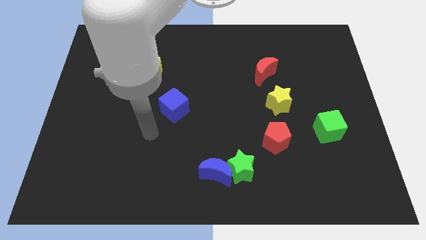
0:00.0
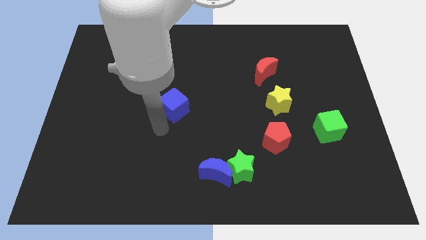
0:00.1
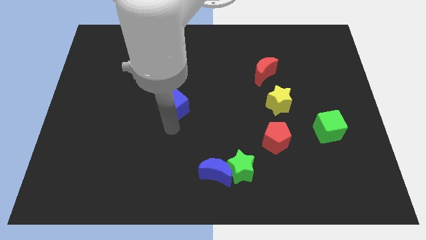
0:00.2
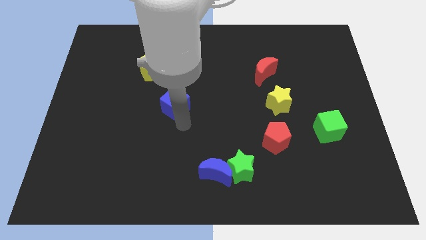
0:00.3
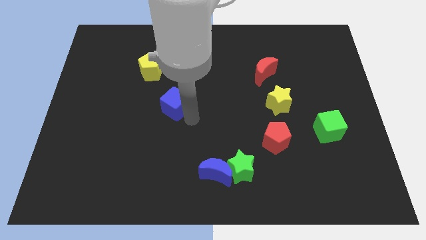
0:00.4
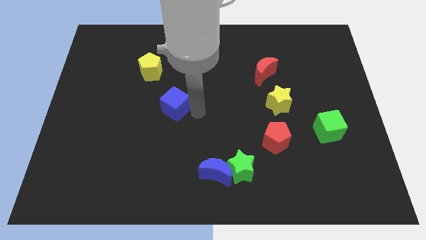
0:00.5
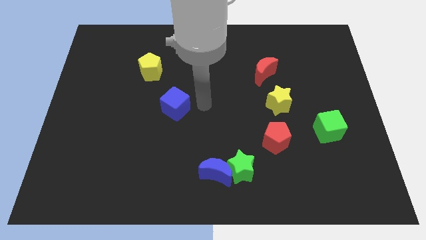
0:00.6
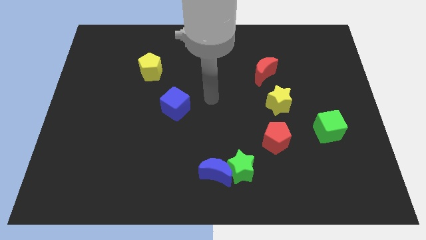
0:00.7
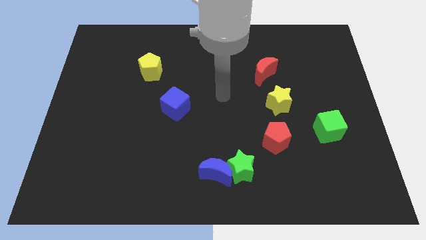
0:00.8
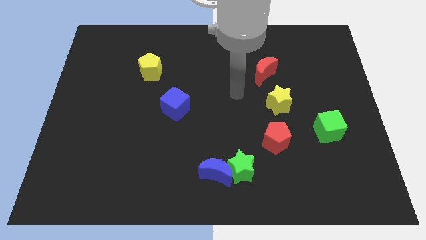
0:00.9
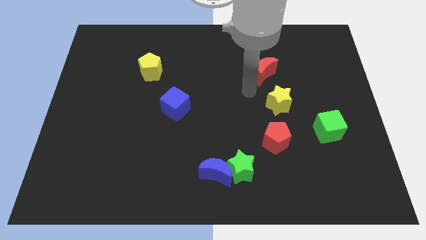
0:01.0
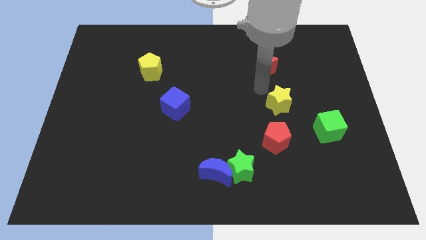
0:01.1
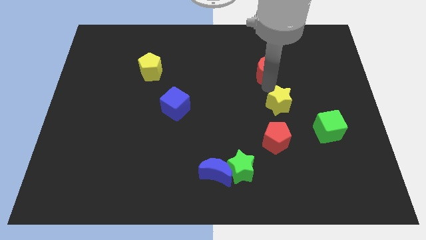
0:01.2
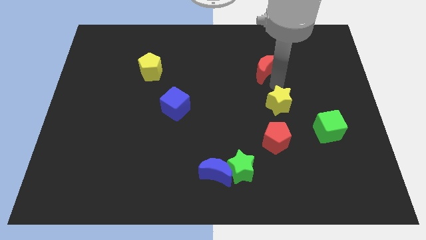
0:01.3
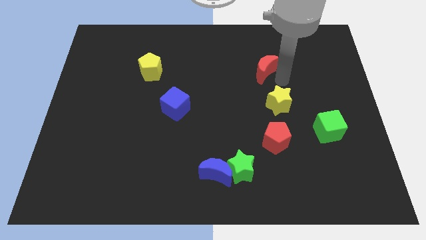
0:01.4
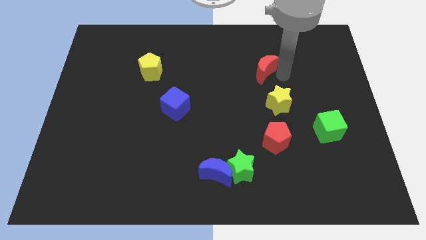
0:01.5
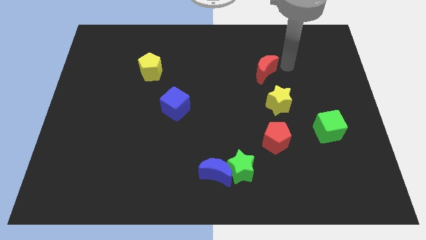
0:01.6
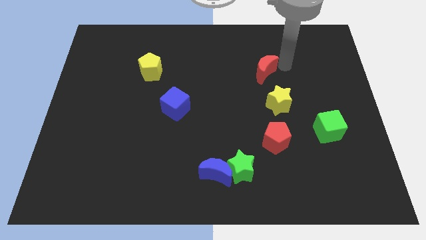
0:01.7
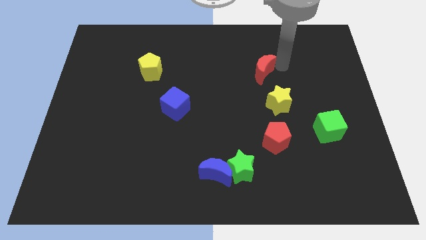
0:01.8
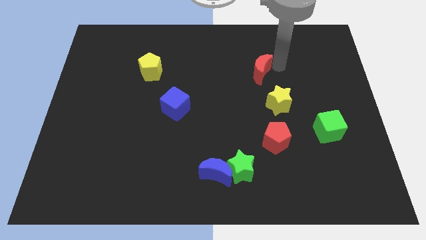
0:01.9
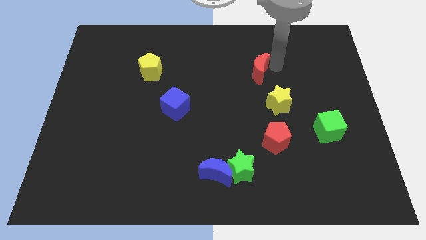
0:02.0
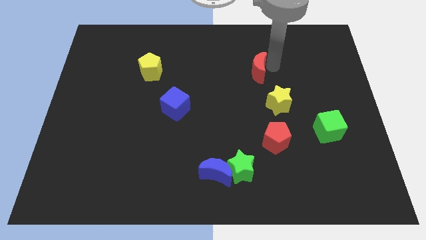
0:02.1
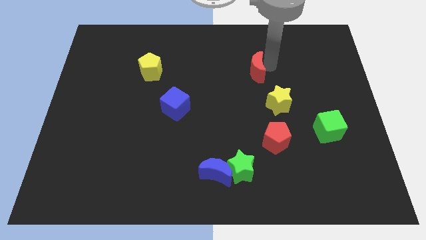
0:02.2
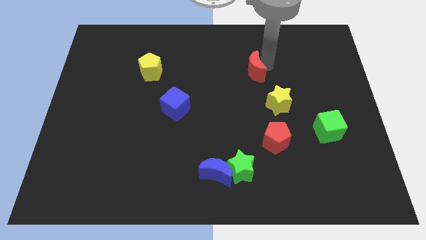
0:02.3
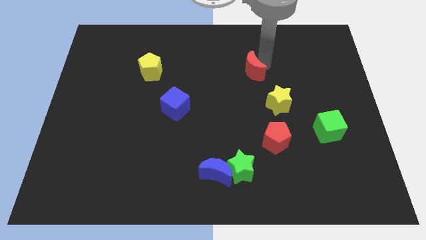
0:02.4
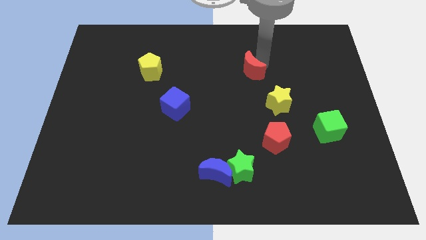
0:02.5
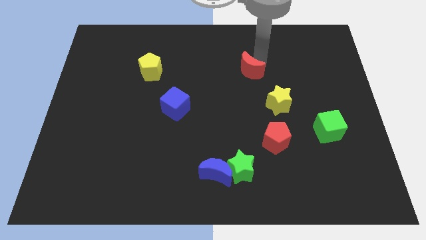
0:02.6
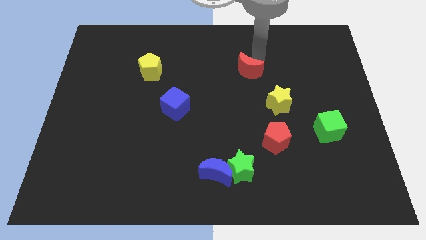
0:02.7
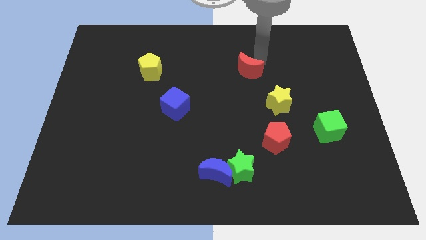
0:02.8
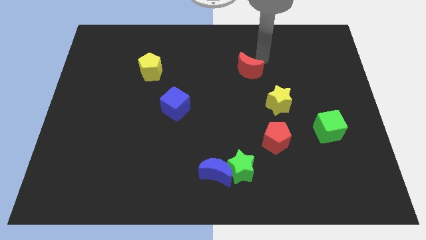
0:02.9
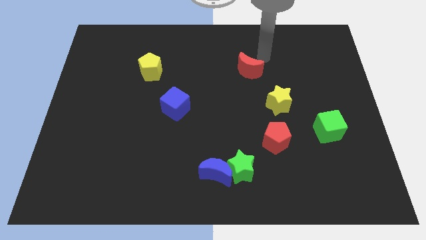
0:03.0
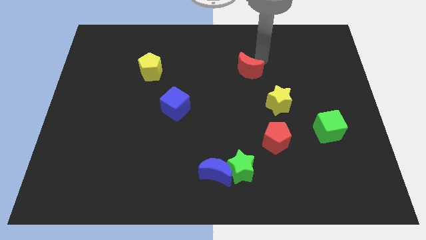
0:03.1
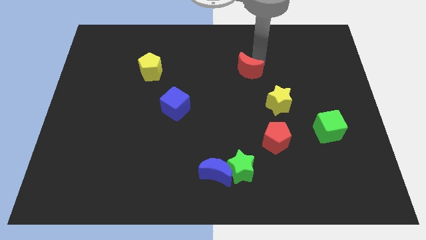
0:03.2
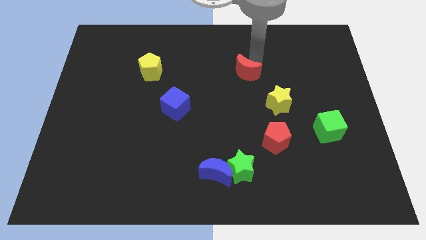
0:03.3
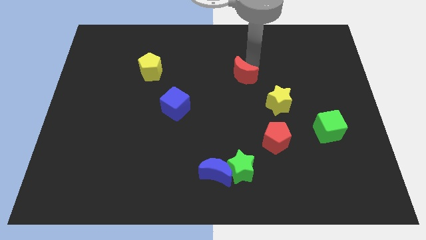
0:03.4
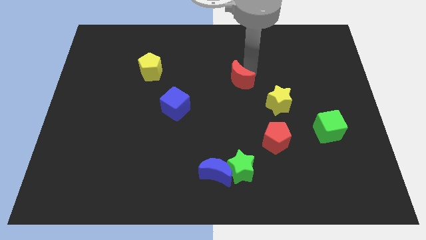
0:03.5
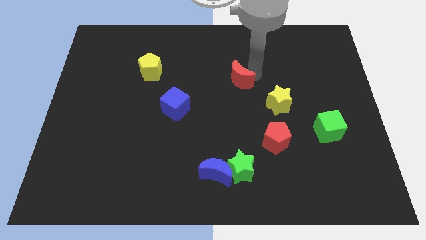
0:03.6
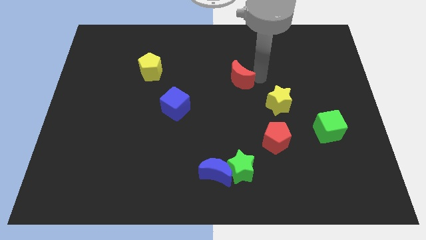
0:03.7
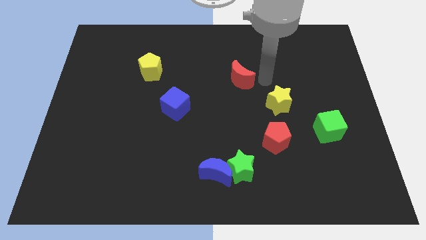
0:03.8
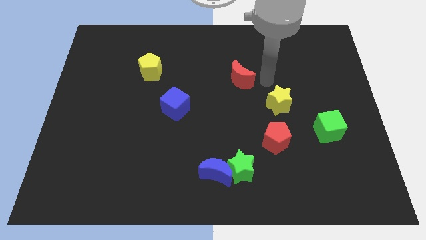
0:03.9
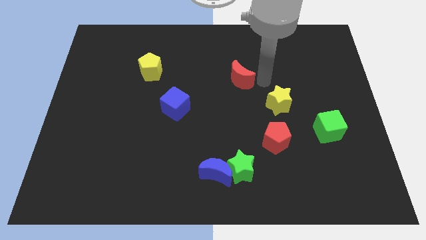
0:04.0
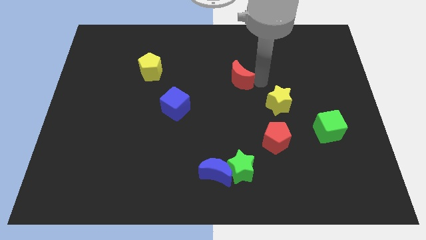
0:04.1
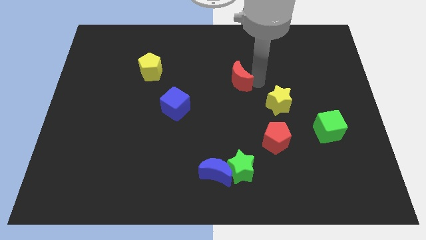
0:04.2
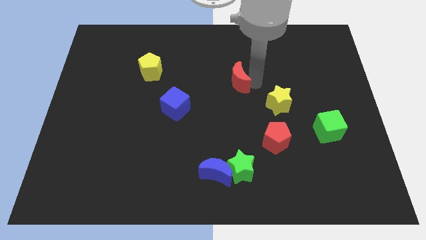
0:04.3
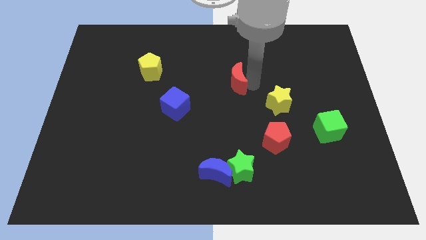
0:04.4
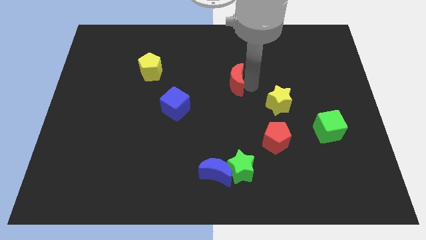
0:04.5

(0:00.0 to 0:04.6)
slightly move the red moon to the left

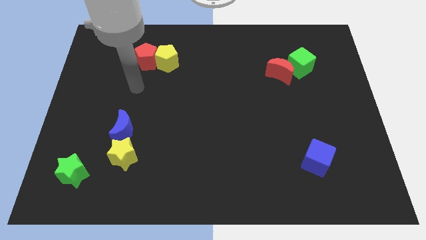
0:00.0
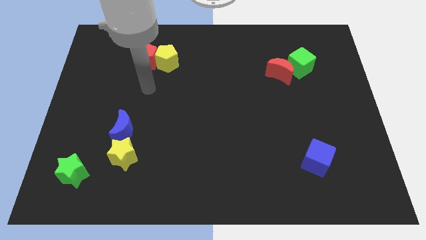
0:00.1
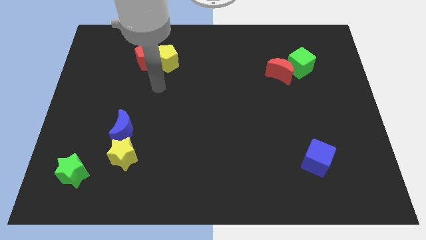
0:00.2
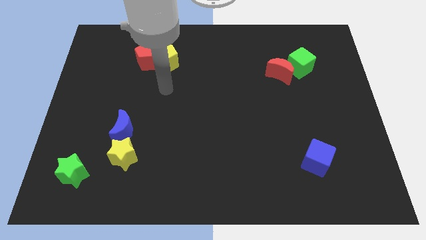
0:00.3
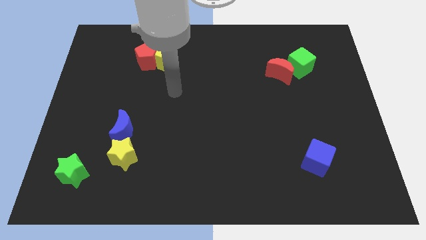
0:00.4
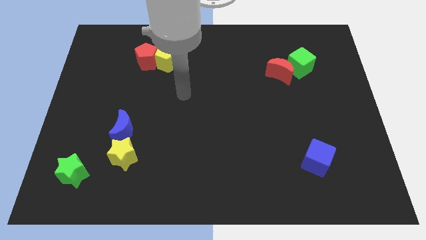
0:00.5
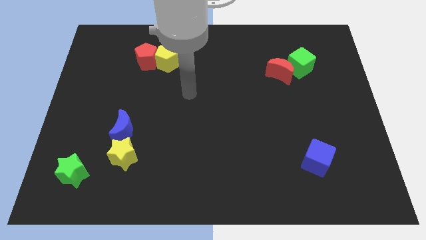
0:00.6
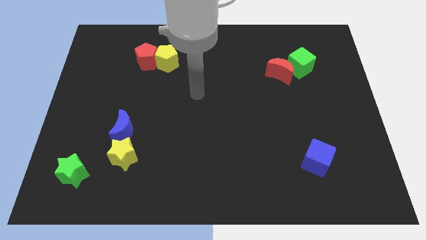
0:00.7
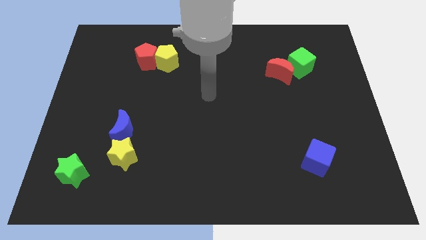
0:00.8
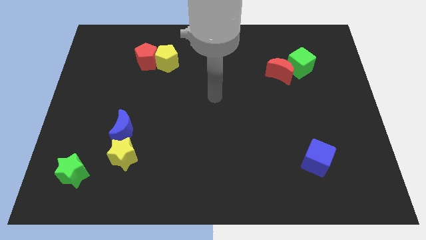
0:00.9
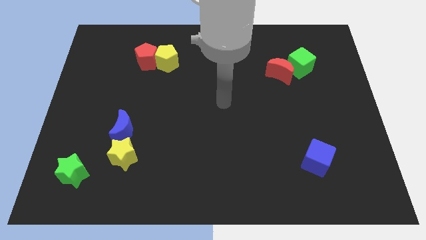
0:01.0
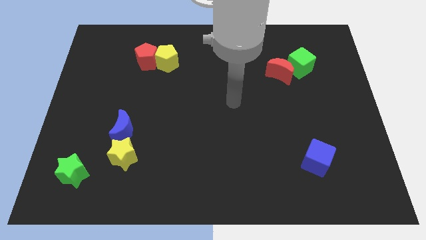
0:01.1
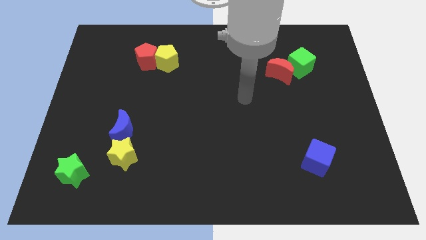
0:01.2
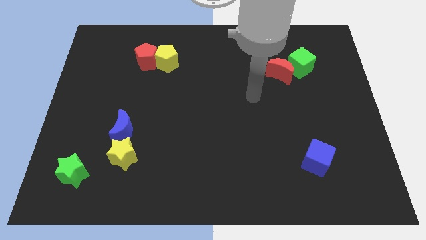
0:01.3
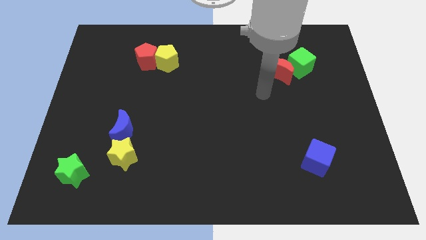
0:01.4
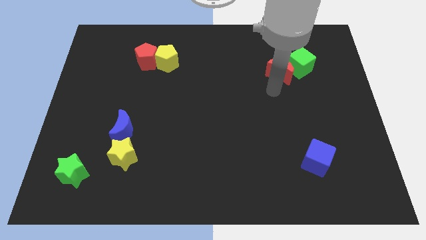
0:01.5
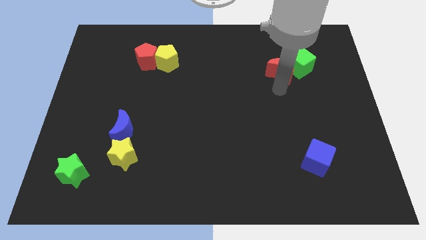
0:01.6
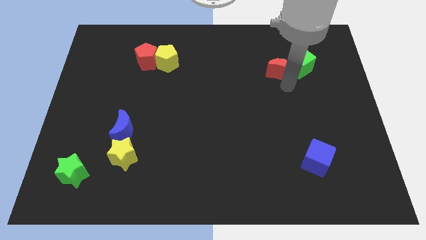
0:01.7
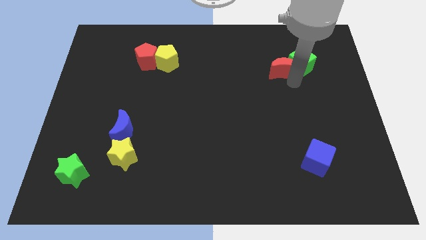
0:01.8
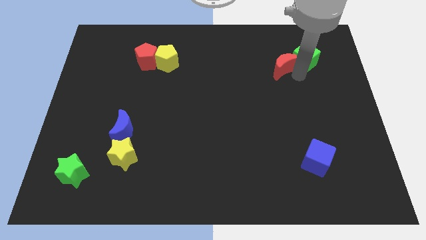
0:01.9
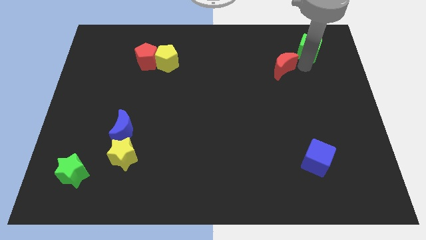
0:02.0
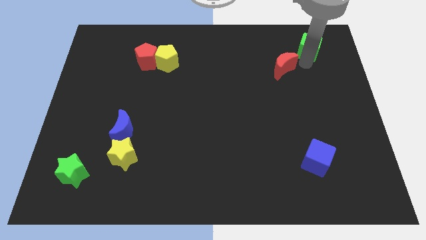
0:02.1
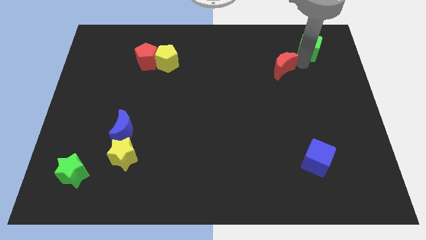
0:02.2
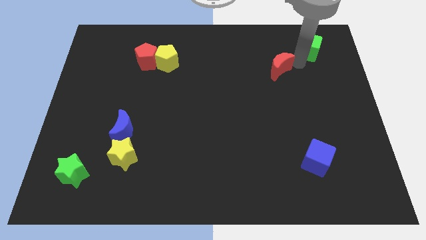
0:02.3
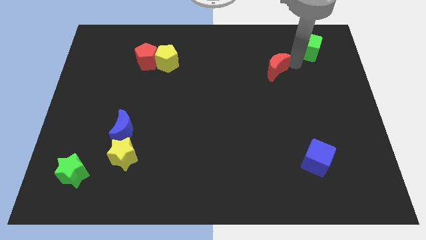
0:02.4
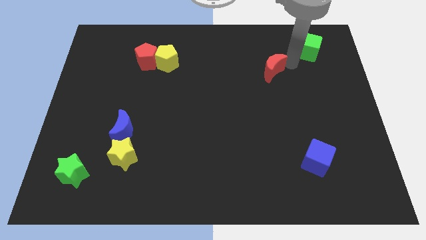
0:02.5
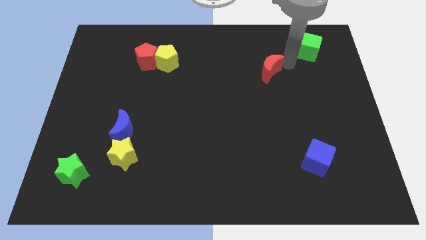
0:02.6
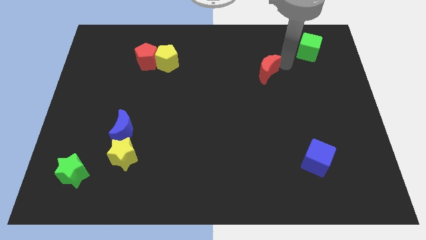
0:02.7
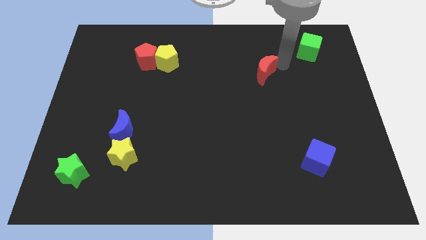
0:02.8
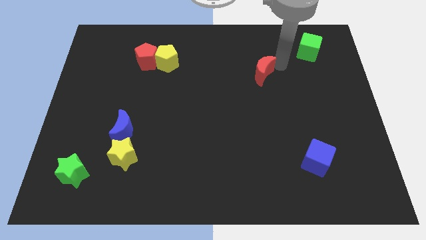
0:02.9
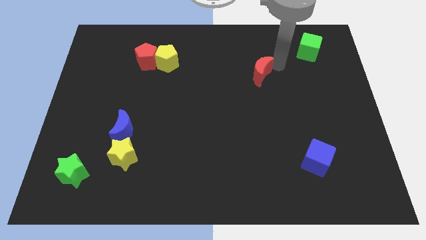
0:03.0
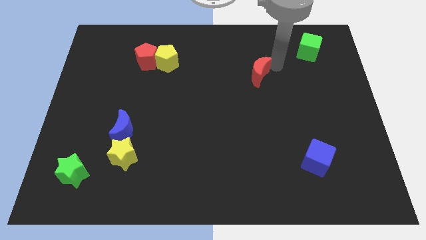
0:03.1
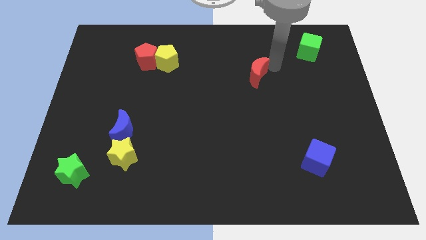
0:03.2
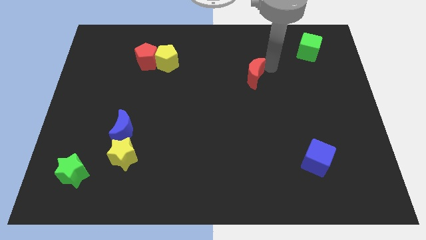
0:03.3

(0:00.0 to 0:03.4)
push the red moon slightly to the left

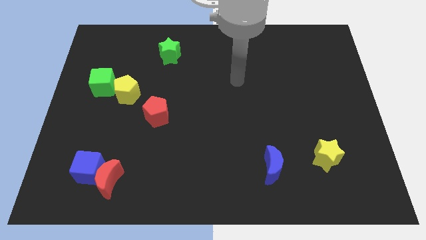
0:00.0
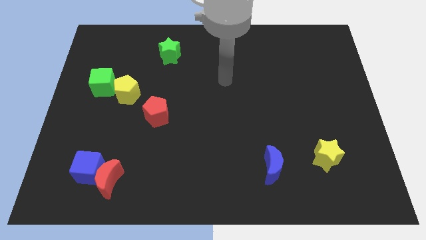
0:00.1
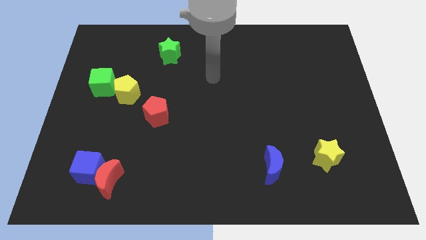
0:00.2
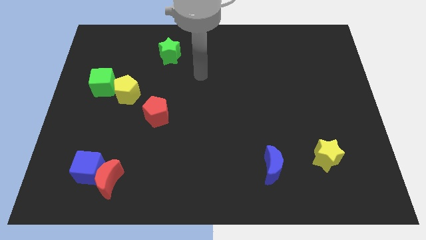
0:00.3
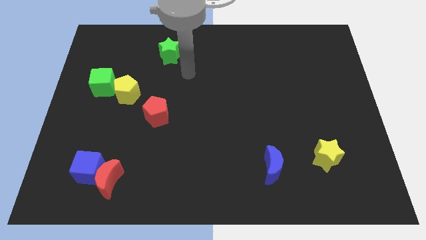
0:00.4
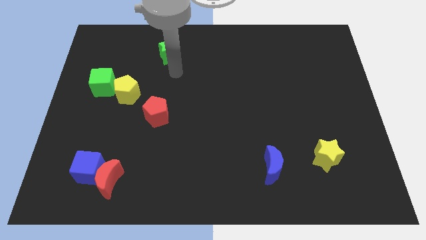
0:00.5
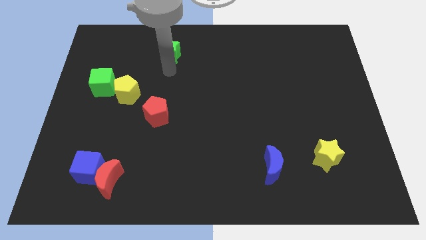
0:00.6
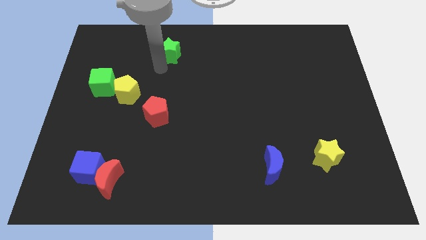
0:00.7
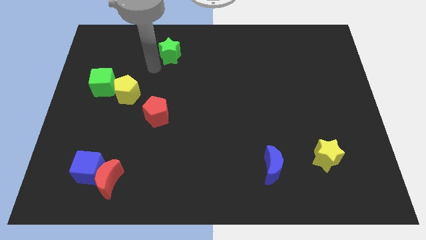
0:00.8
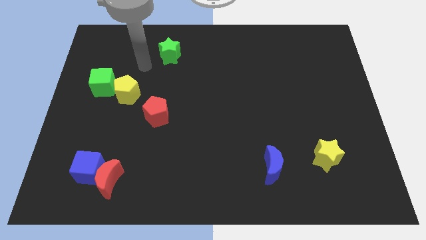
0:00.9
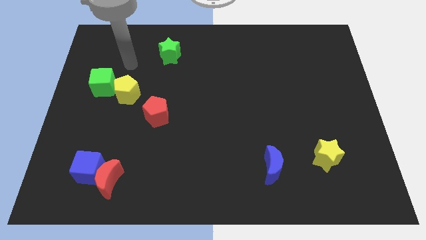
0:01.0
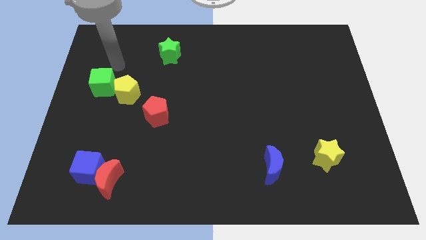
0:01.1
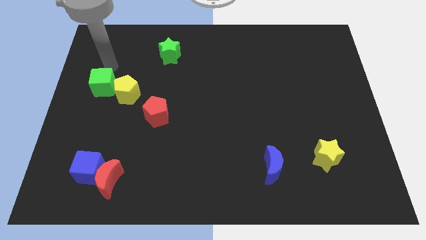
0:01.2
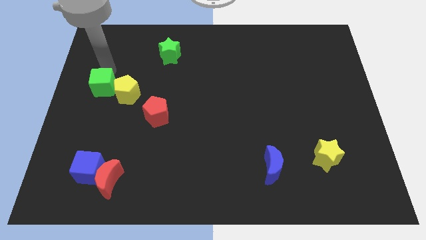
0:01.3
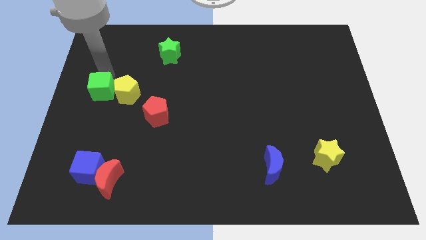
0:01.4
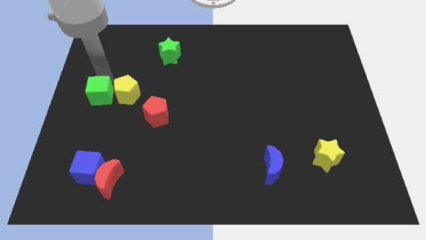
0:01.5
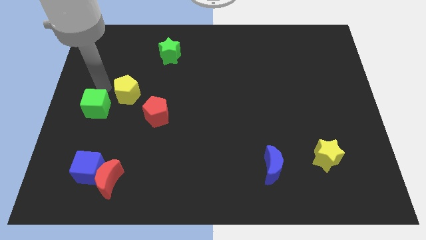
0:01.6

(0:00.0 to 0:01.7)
slightly slide the green cube downwards
